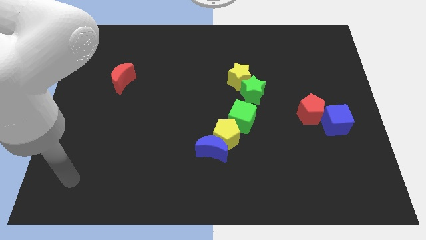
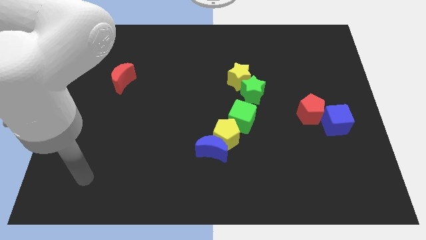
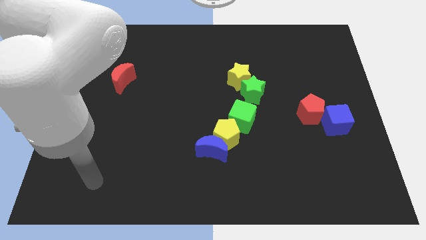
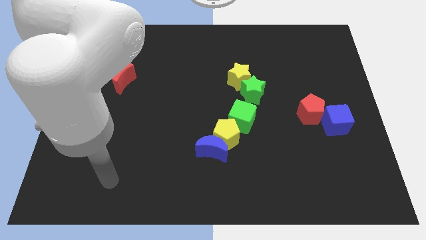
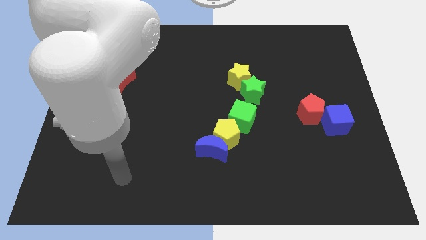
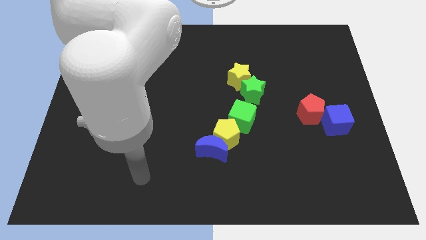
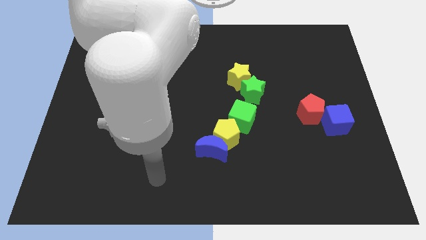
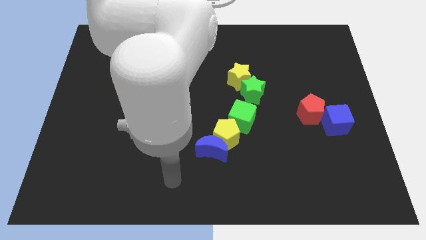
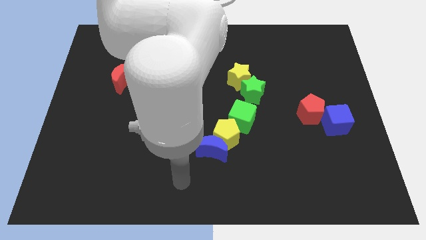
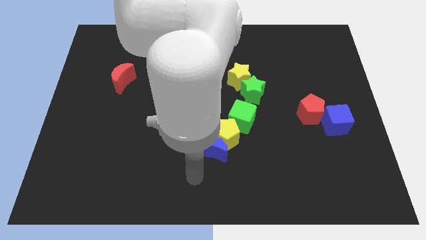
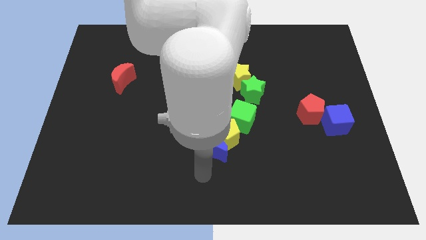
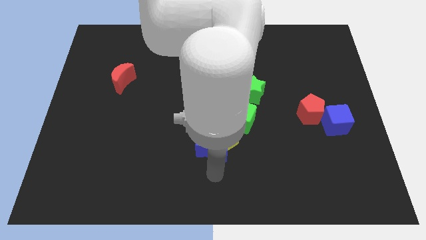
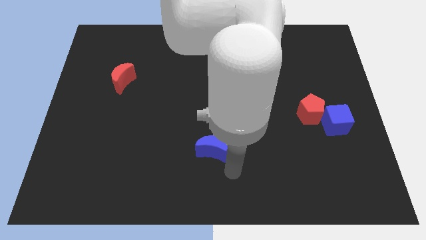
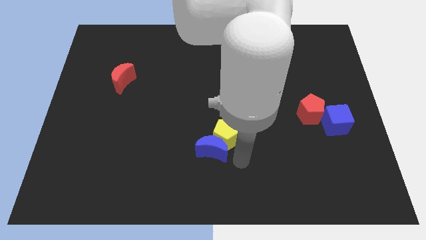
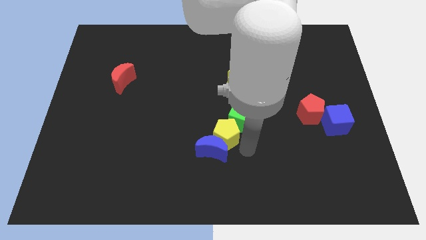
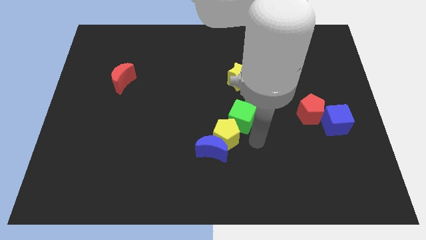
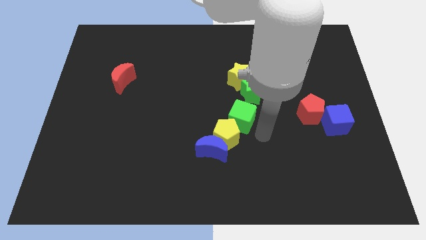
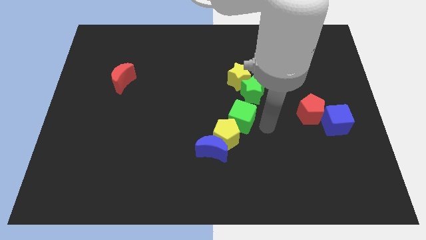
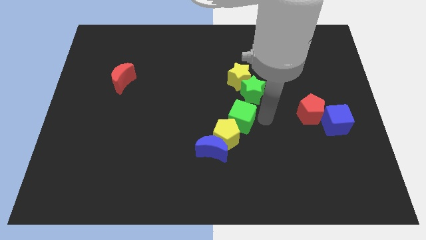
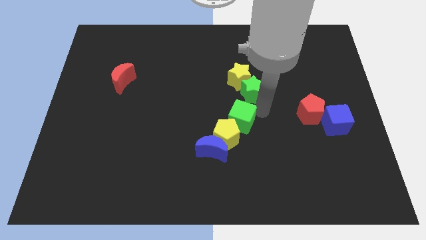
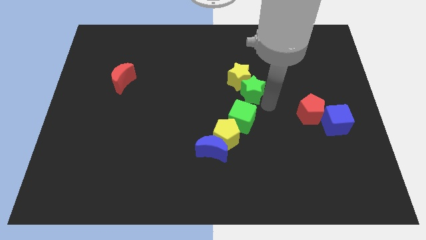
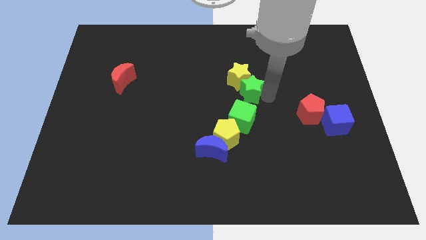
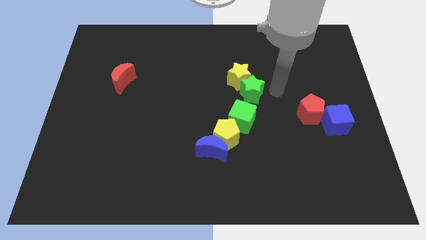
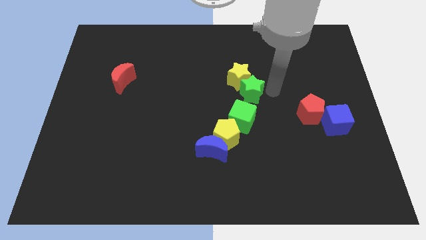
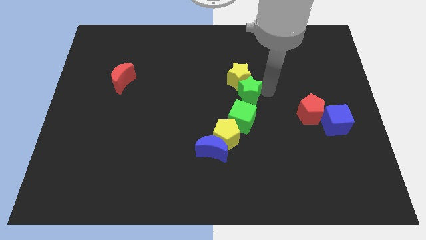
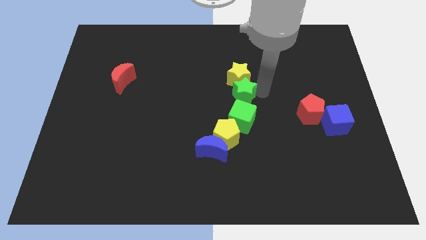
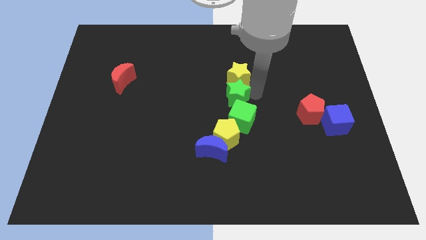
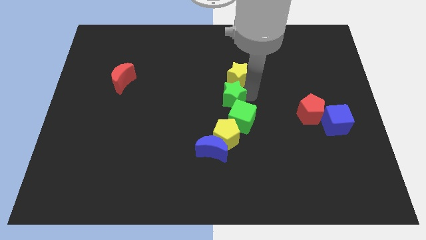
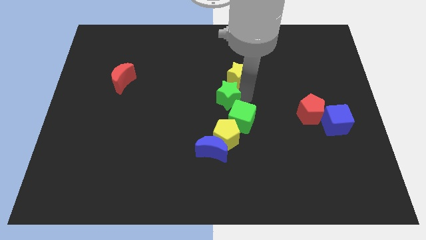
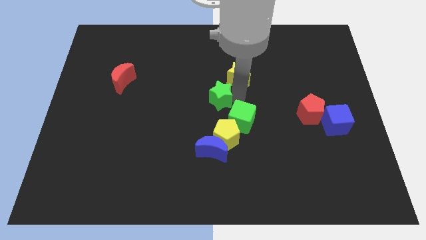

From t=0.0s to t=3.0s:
push the green star slightly left

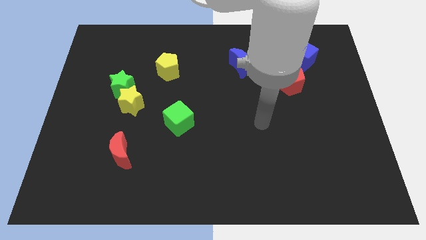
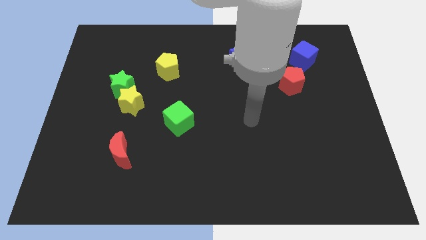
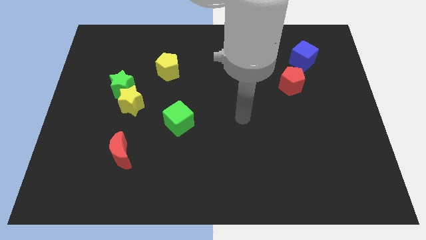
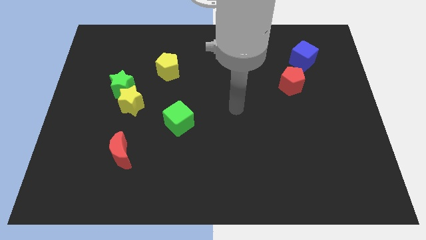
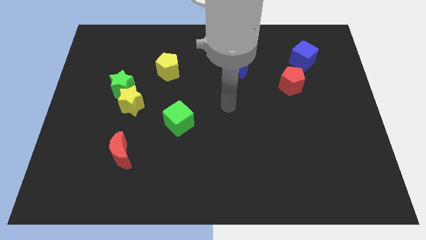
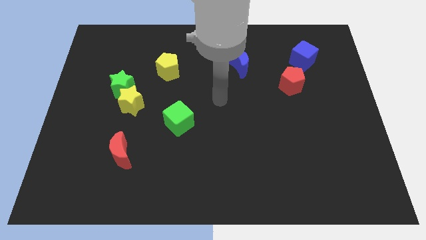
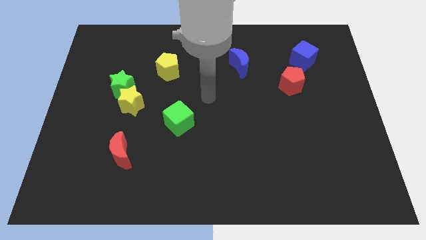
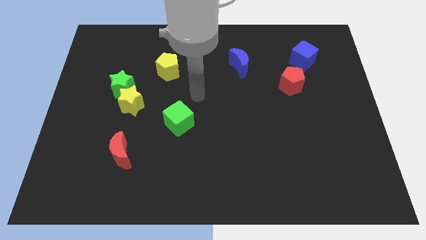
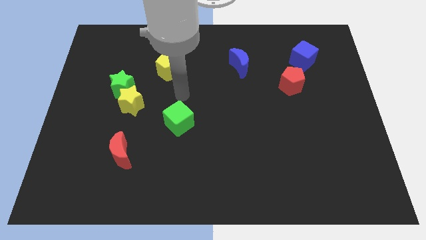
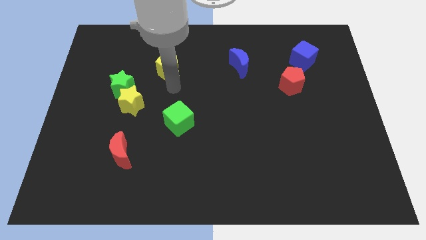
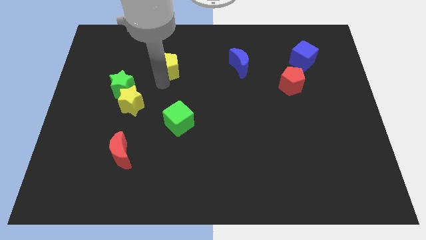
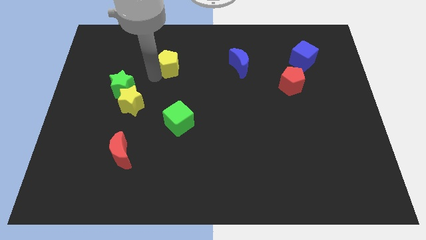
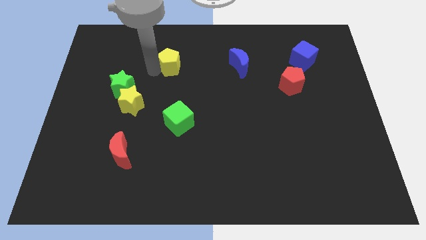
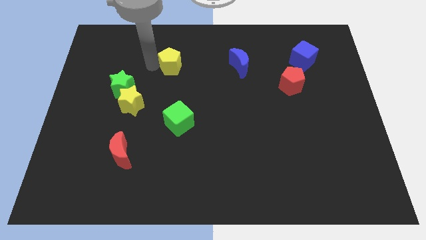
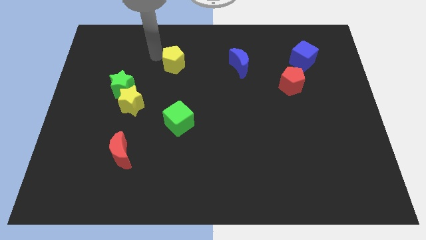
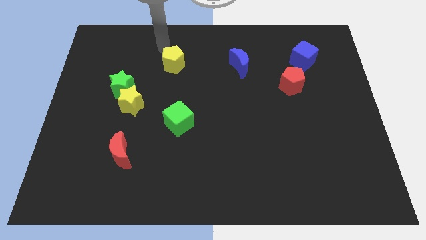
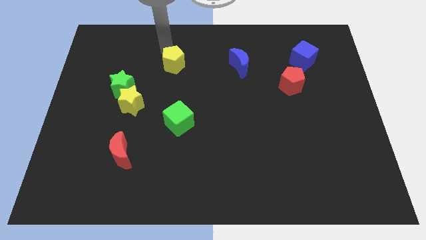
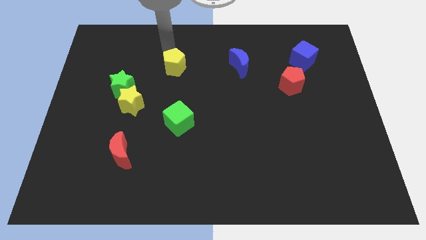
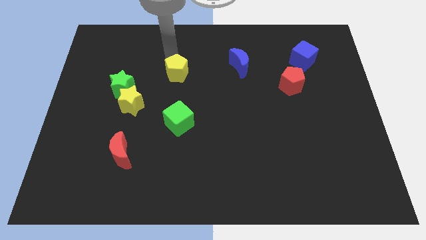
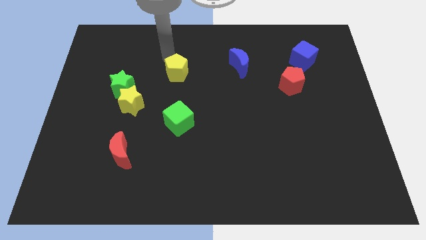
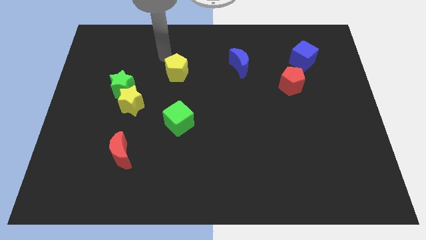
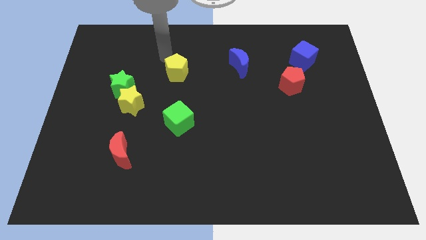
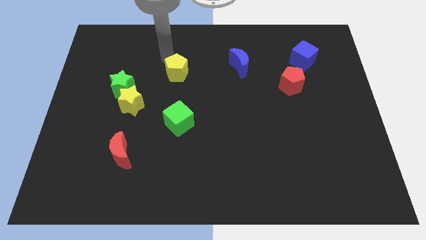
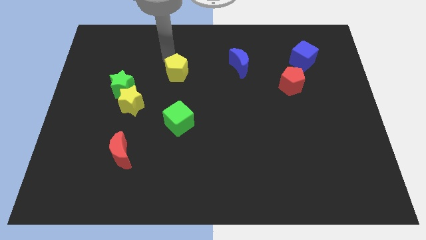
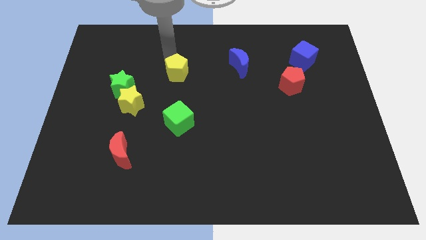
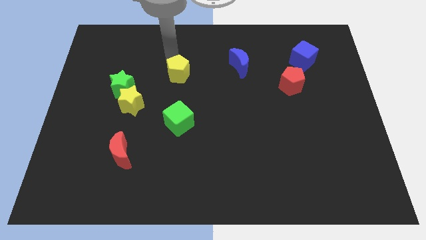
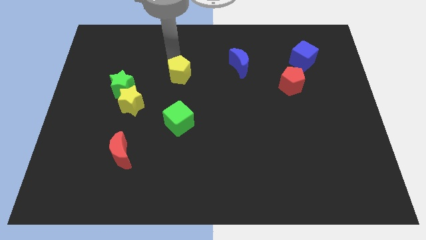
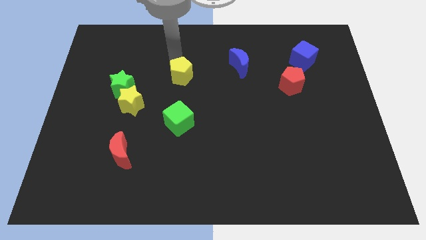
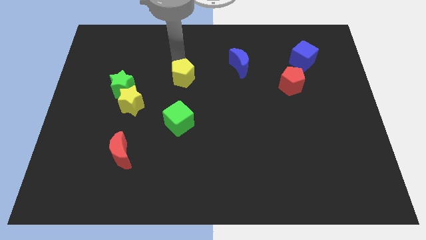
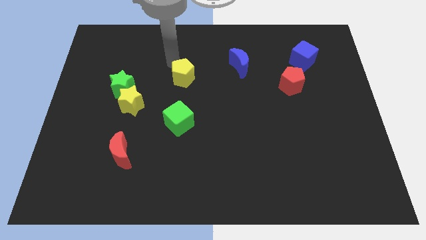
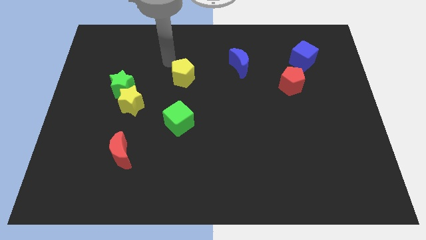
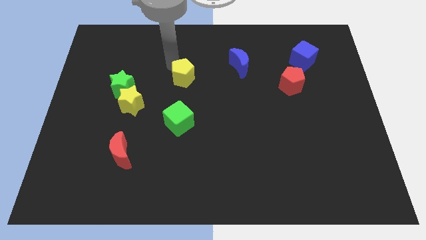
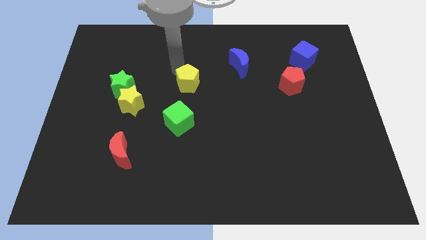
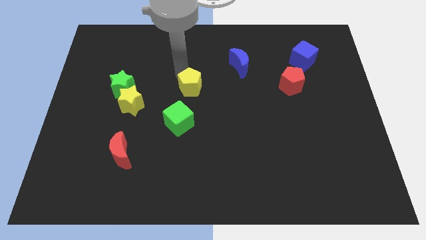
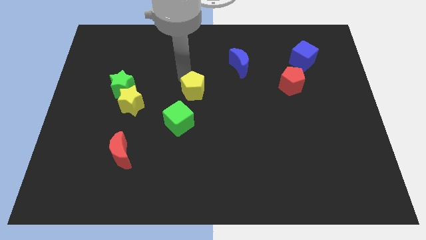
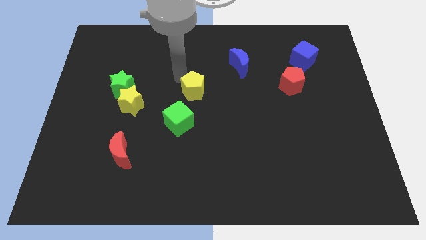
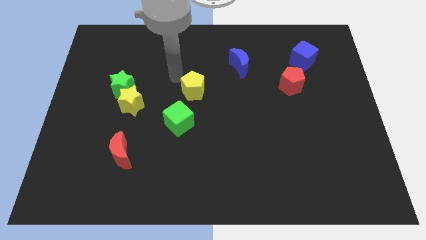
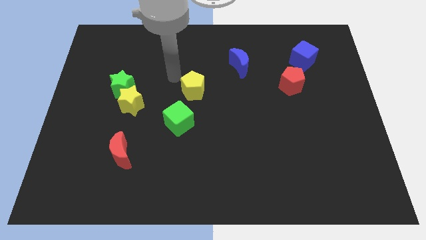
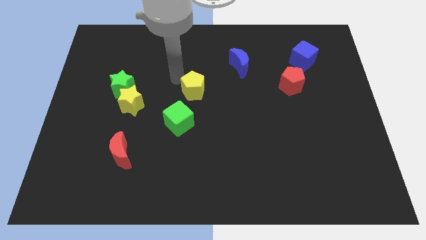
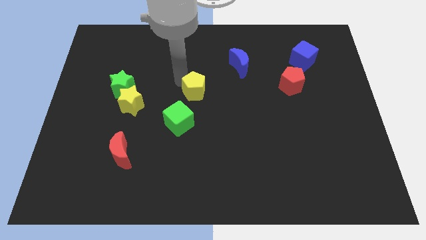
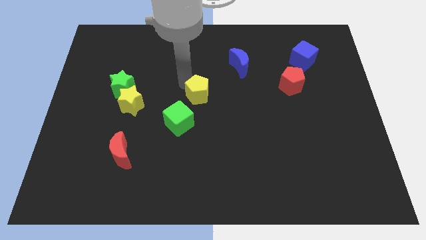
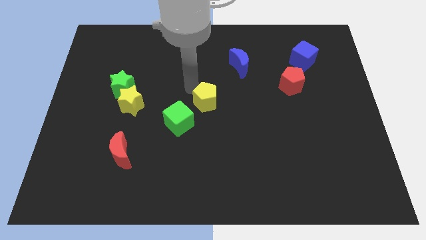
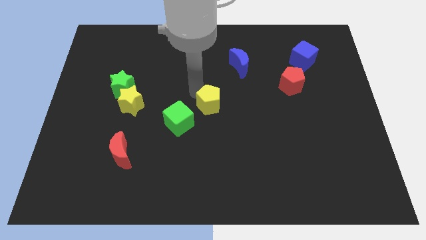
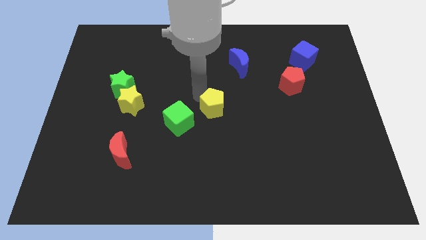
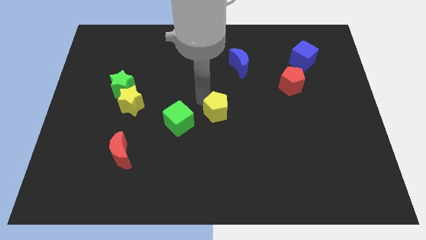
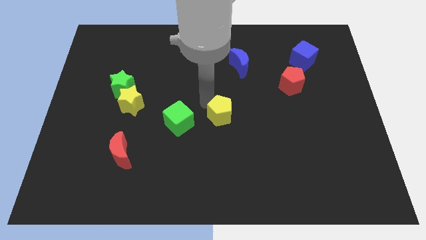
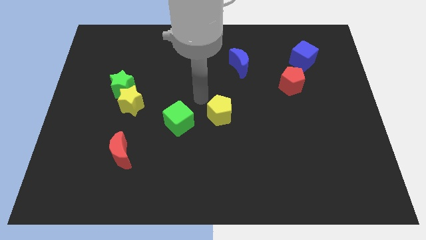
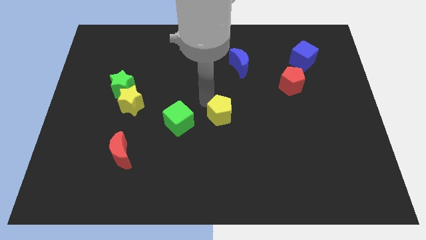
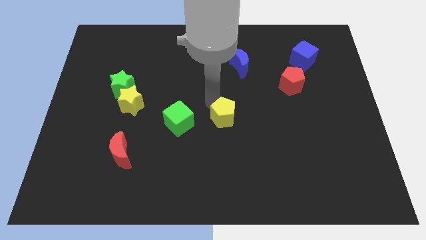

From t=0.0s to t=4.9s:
slide the yellow pentagon down and then right
